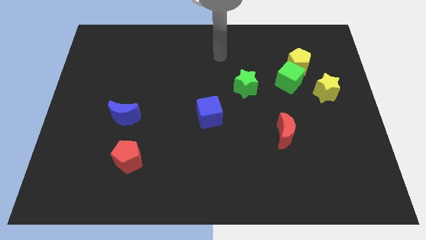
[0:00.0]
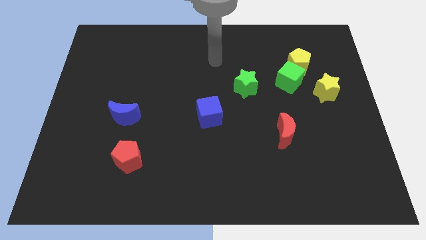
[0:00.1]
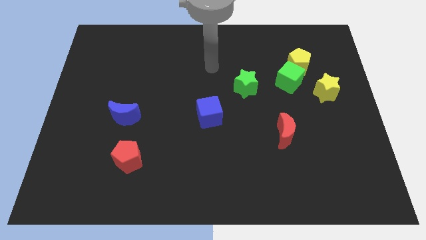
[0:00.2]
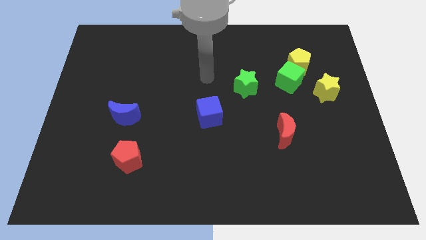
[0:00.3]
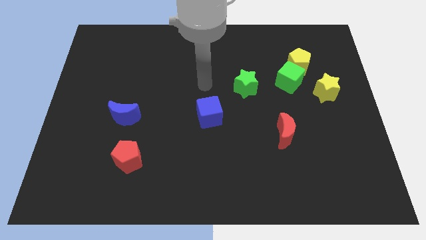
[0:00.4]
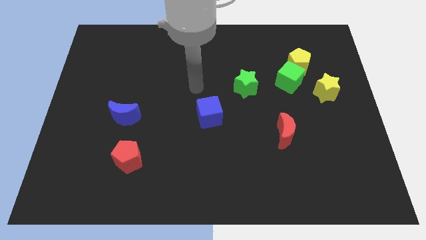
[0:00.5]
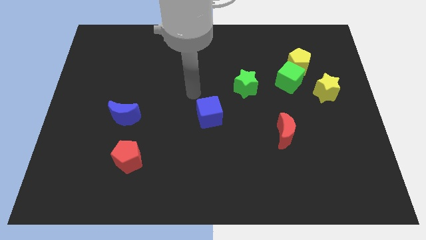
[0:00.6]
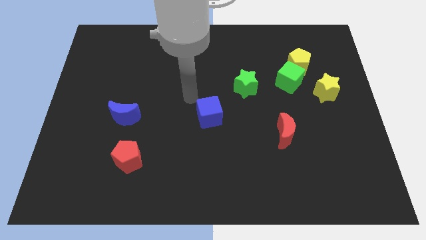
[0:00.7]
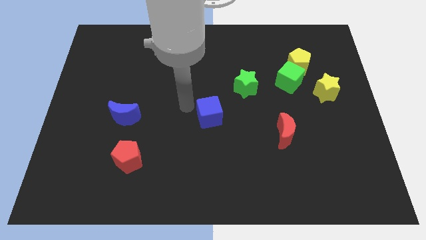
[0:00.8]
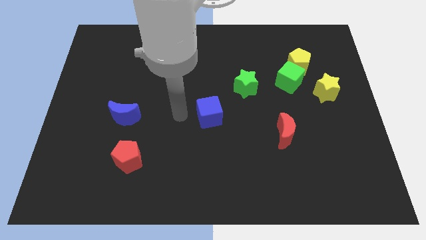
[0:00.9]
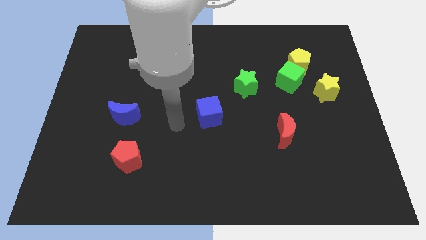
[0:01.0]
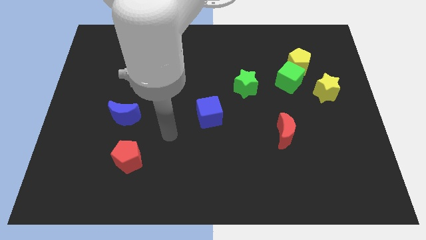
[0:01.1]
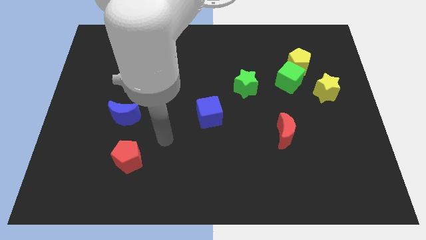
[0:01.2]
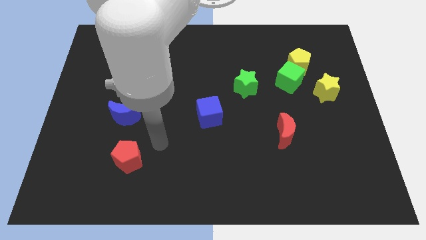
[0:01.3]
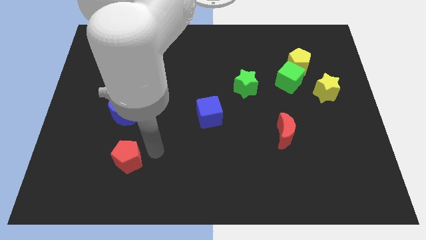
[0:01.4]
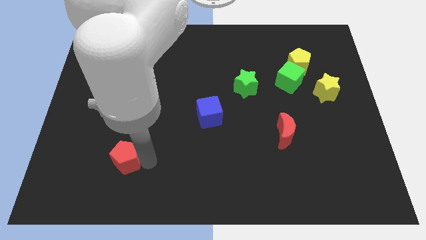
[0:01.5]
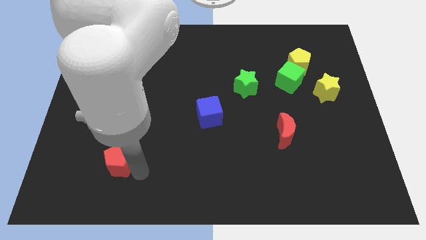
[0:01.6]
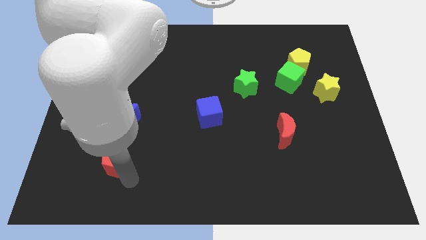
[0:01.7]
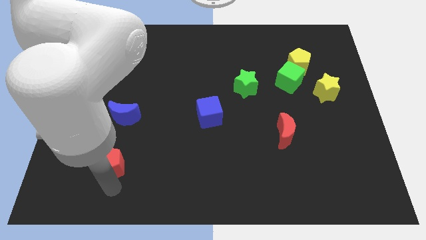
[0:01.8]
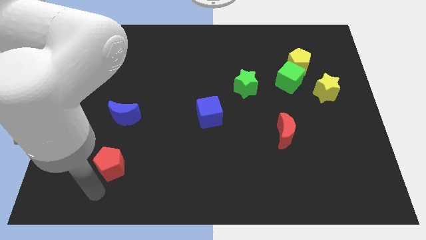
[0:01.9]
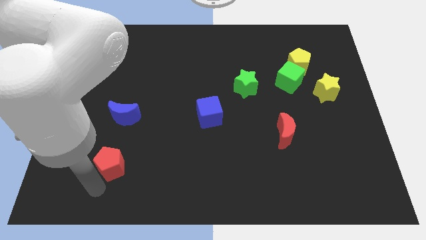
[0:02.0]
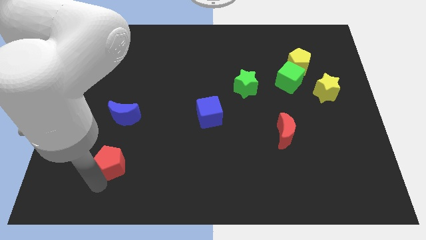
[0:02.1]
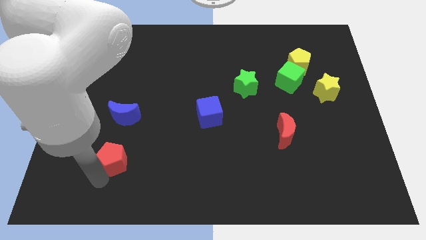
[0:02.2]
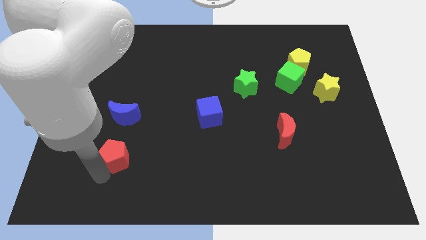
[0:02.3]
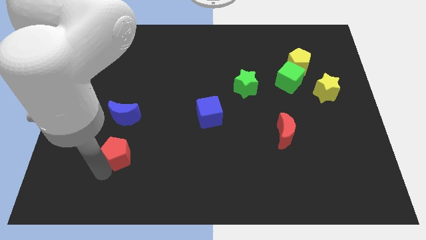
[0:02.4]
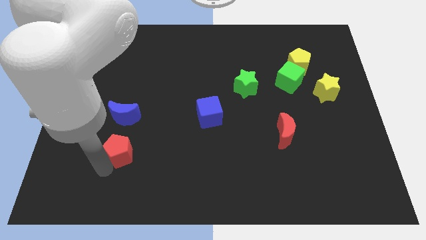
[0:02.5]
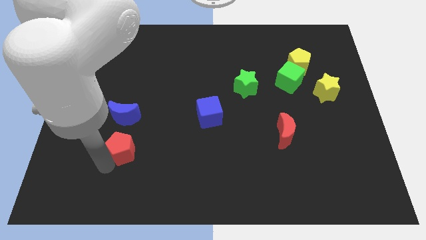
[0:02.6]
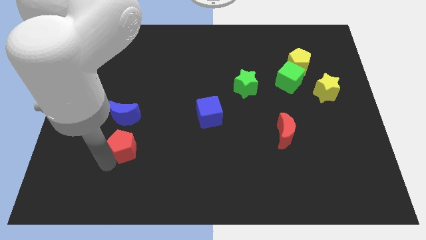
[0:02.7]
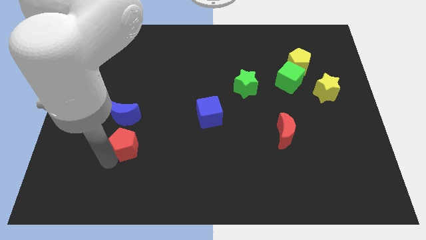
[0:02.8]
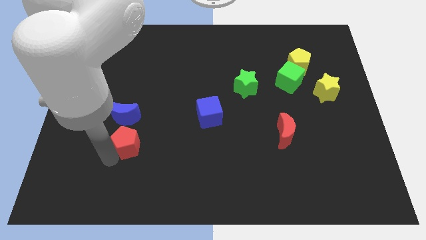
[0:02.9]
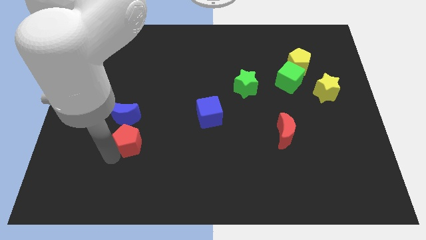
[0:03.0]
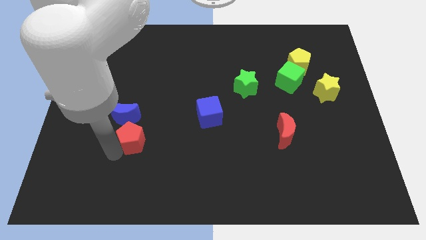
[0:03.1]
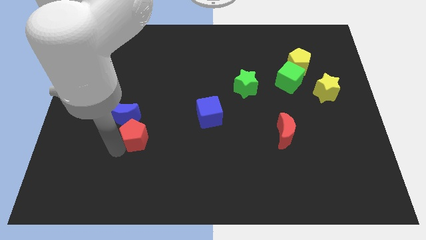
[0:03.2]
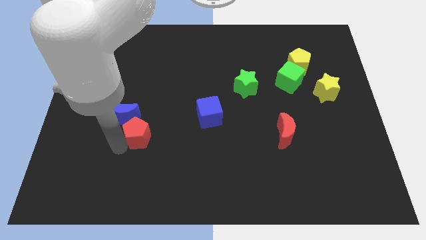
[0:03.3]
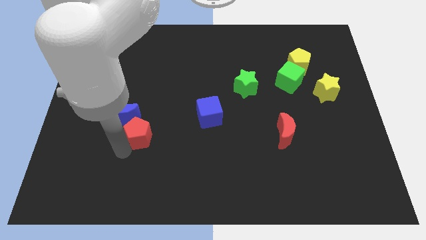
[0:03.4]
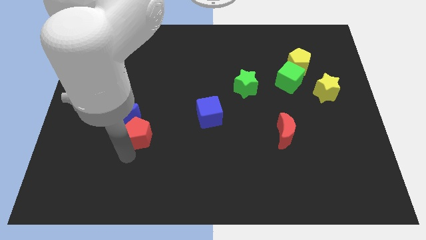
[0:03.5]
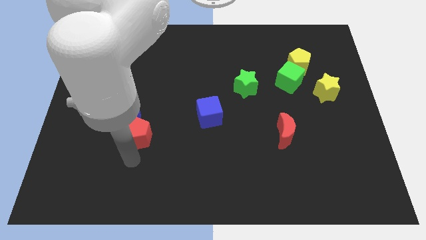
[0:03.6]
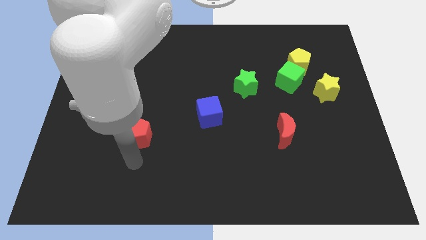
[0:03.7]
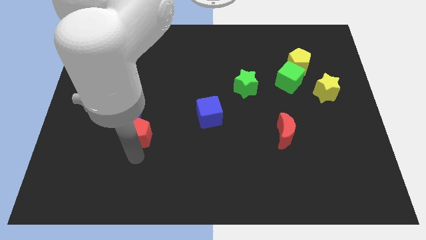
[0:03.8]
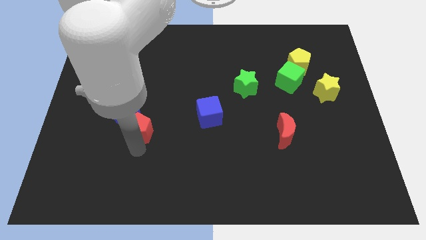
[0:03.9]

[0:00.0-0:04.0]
move the red pentagon somewhat up

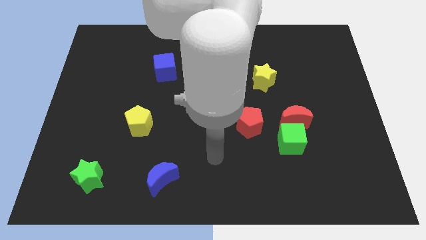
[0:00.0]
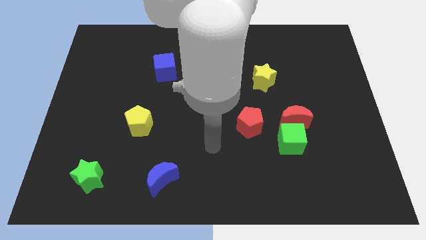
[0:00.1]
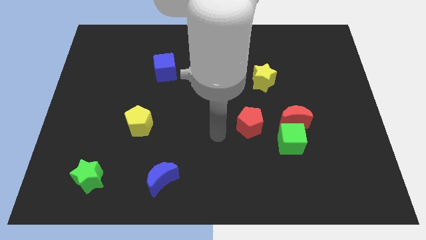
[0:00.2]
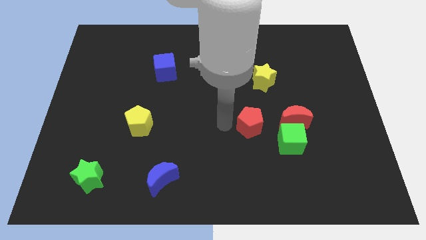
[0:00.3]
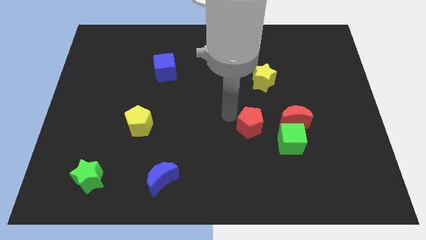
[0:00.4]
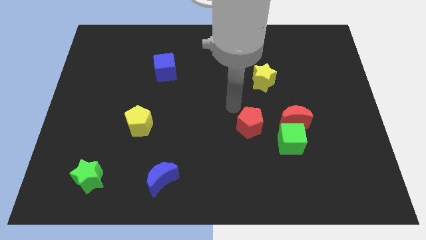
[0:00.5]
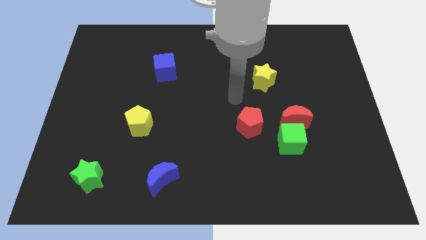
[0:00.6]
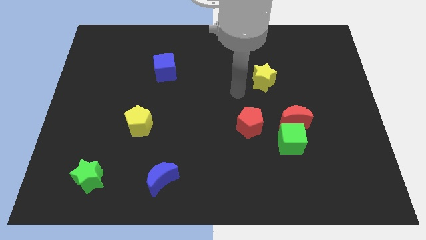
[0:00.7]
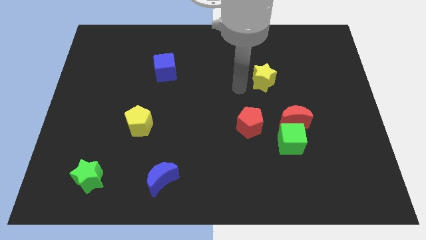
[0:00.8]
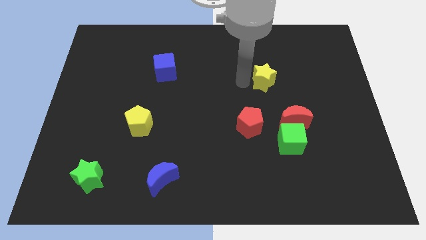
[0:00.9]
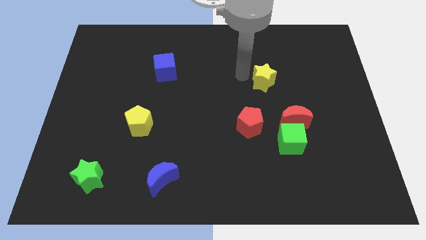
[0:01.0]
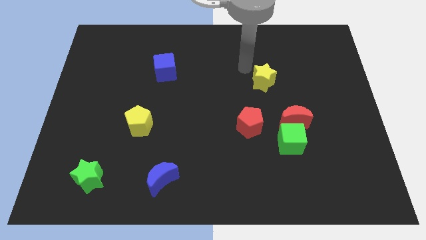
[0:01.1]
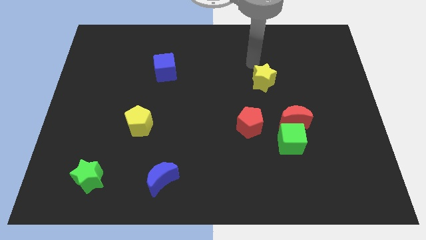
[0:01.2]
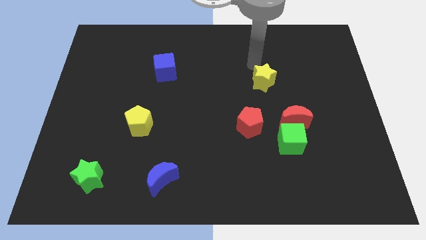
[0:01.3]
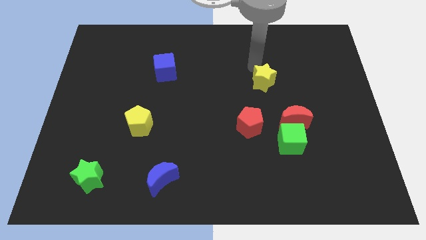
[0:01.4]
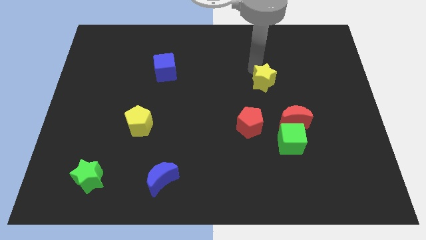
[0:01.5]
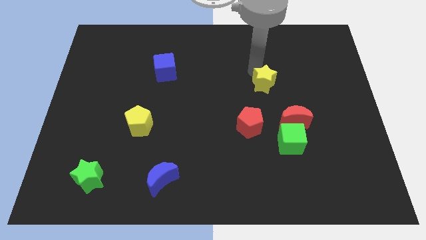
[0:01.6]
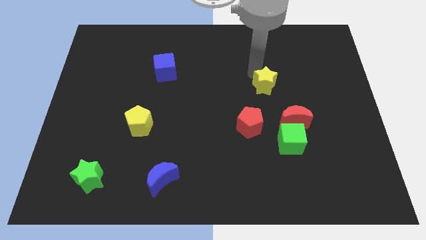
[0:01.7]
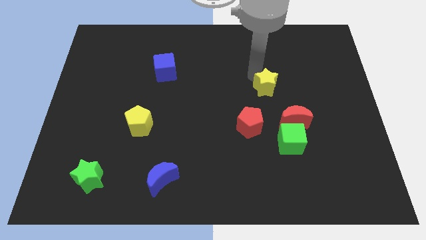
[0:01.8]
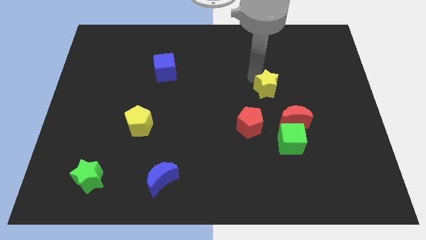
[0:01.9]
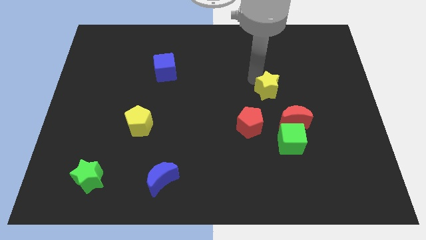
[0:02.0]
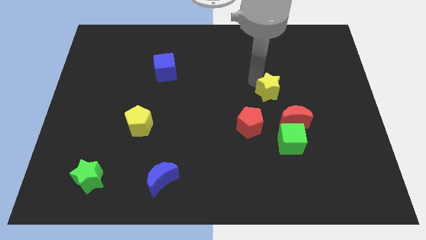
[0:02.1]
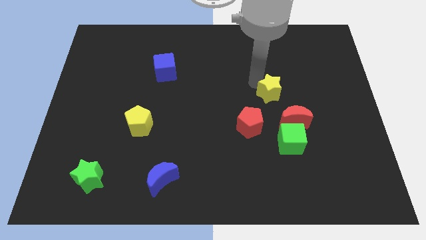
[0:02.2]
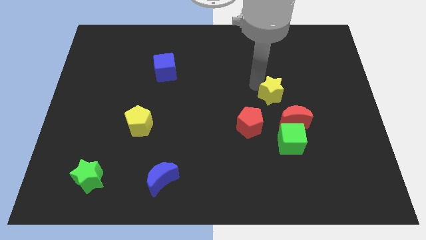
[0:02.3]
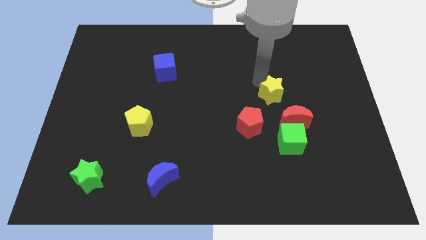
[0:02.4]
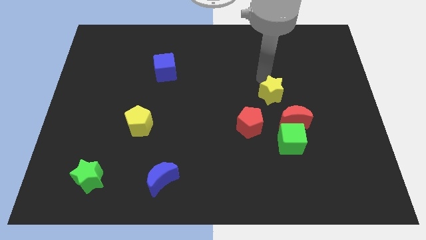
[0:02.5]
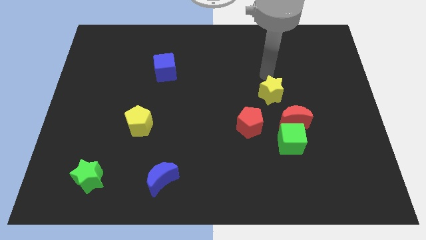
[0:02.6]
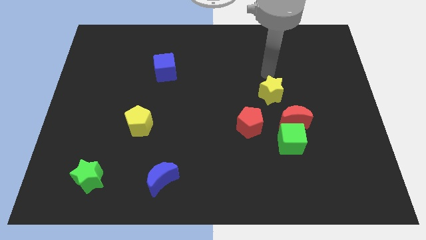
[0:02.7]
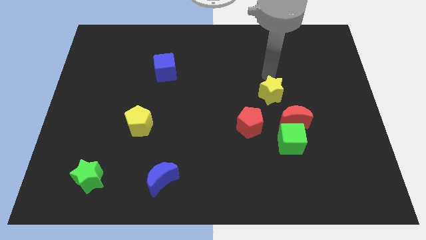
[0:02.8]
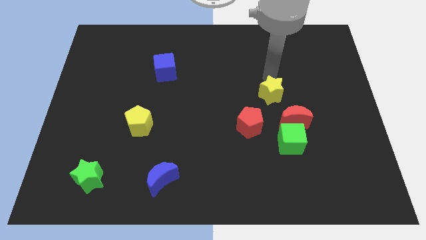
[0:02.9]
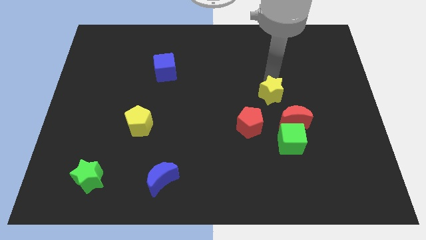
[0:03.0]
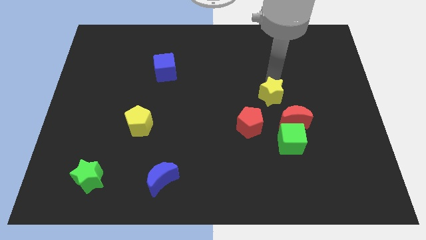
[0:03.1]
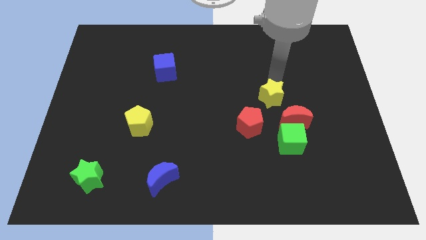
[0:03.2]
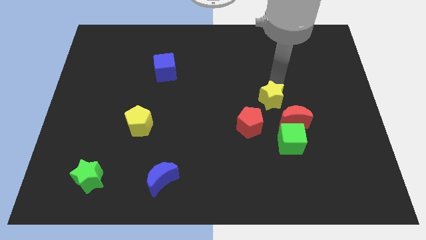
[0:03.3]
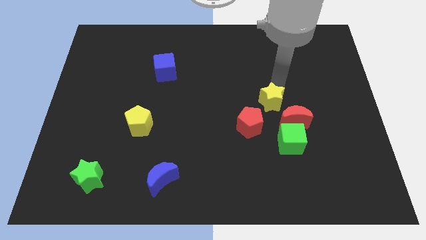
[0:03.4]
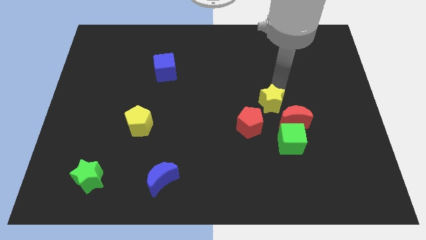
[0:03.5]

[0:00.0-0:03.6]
slide the yellow star down a bit

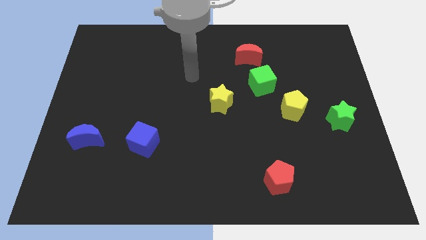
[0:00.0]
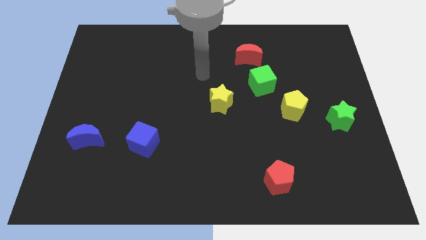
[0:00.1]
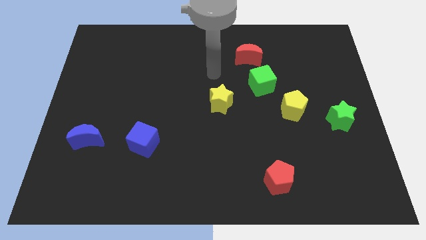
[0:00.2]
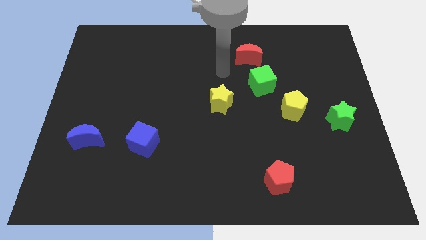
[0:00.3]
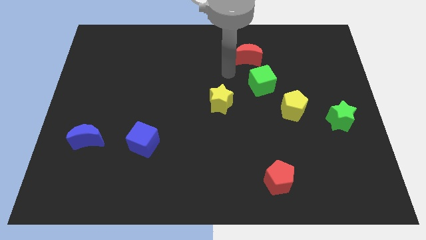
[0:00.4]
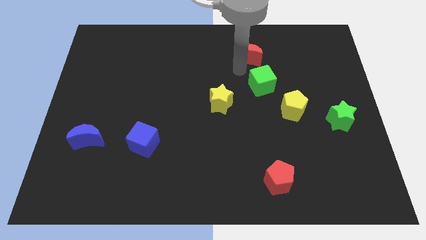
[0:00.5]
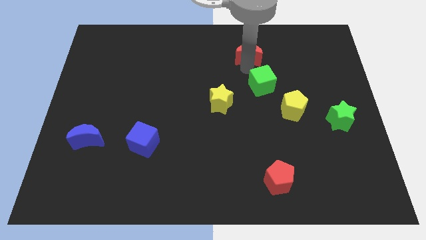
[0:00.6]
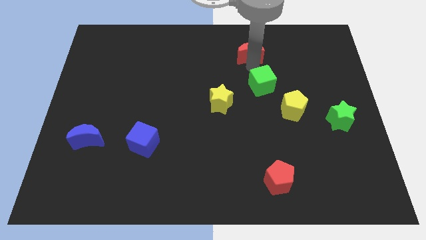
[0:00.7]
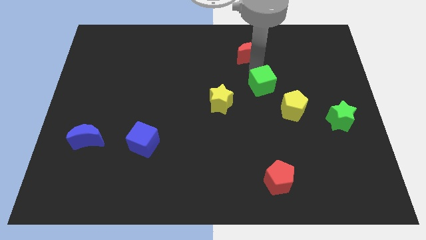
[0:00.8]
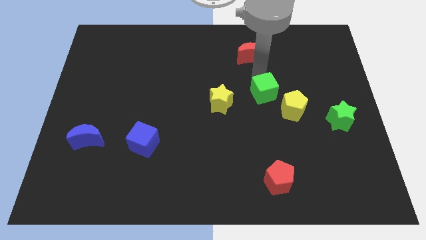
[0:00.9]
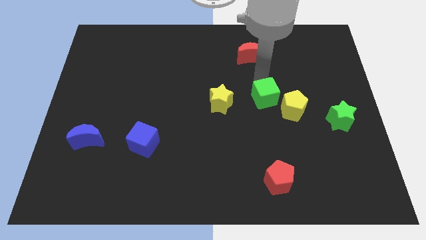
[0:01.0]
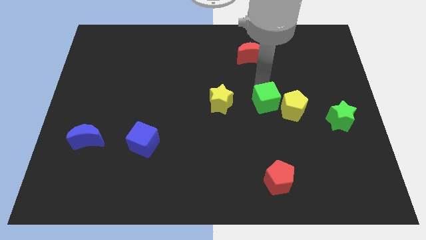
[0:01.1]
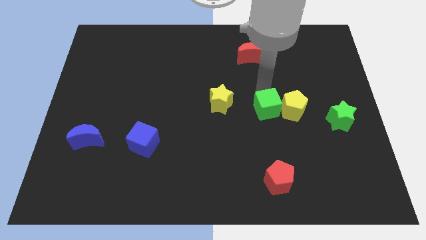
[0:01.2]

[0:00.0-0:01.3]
slide the green cube downwards a little bit
